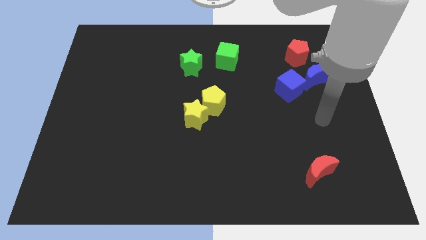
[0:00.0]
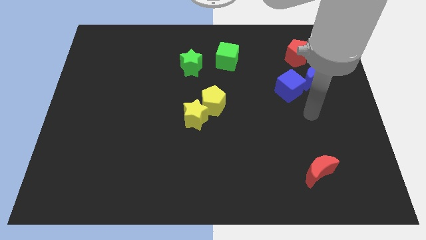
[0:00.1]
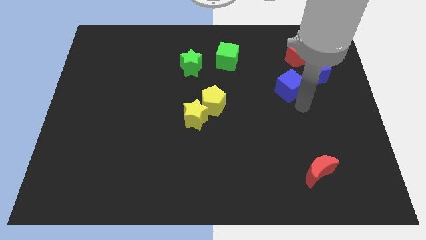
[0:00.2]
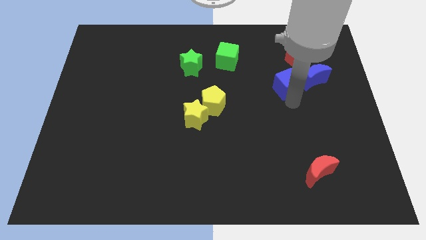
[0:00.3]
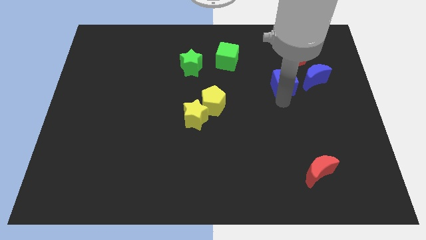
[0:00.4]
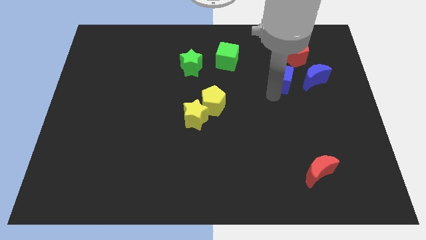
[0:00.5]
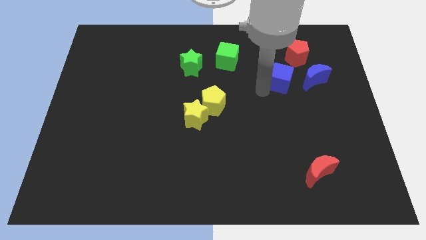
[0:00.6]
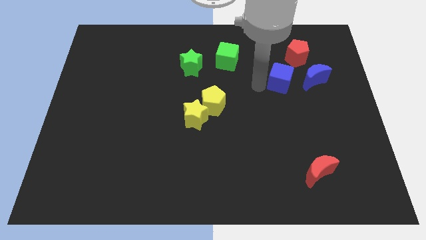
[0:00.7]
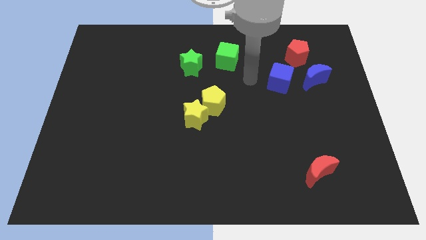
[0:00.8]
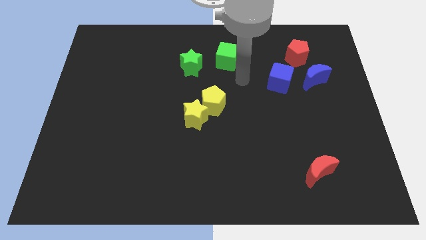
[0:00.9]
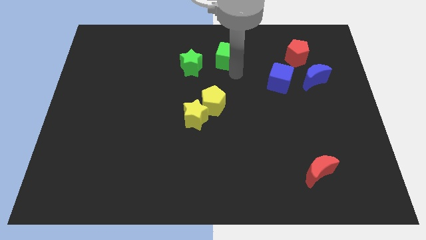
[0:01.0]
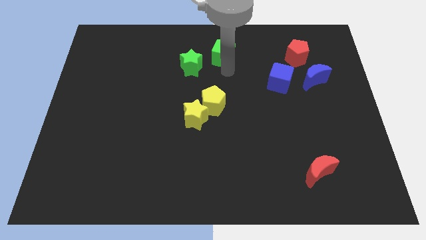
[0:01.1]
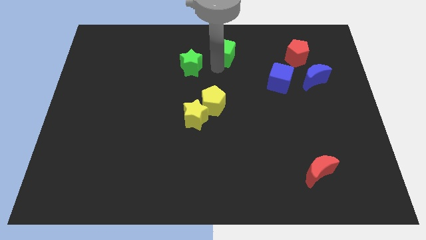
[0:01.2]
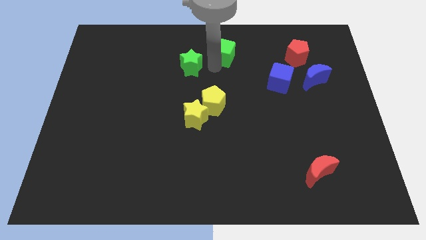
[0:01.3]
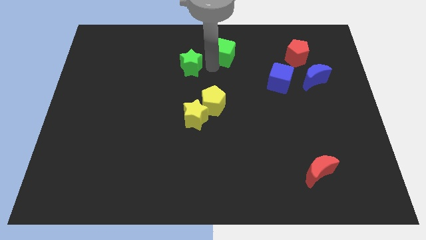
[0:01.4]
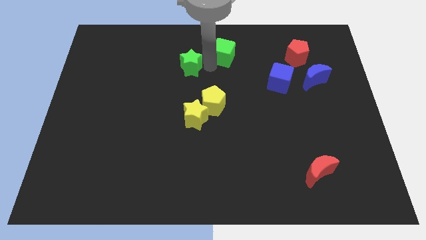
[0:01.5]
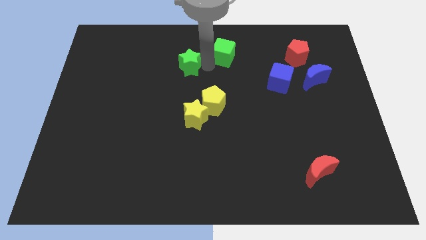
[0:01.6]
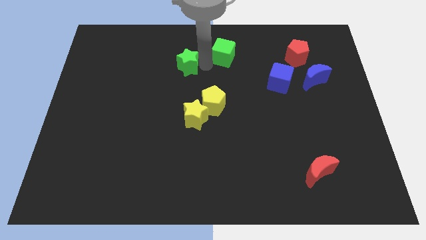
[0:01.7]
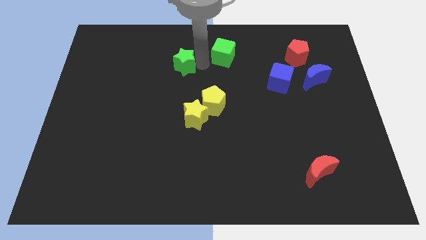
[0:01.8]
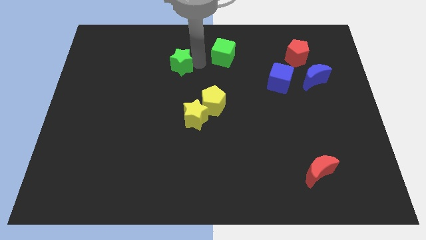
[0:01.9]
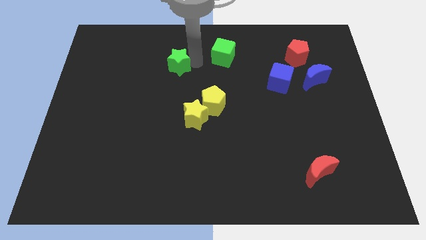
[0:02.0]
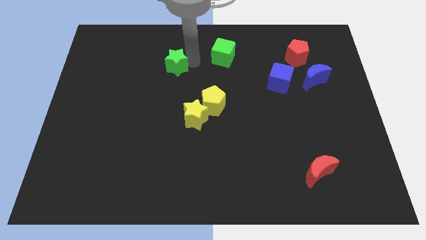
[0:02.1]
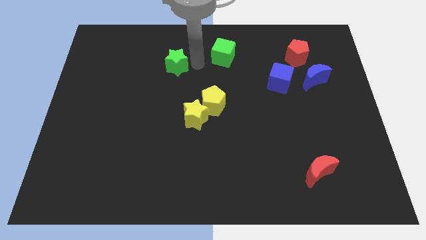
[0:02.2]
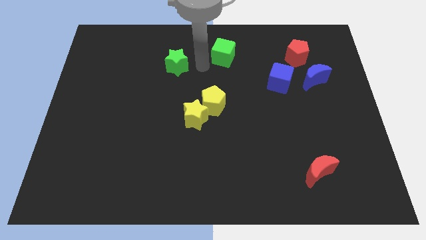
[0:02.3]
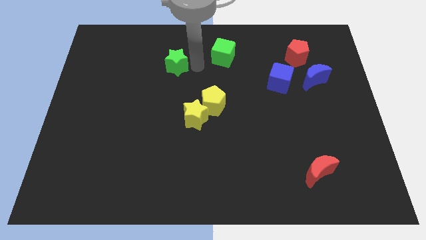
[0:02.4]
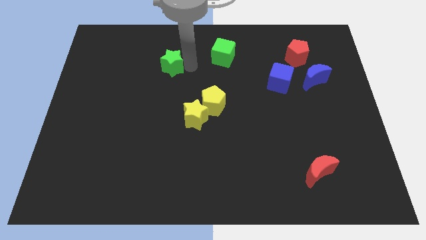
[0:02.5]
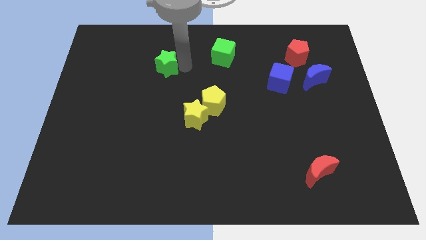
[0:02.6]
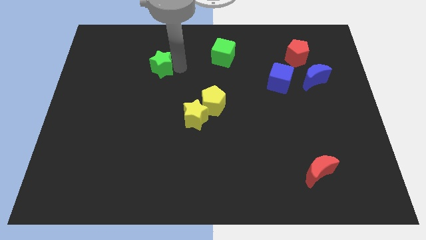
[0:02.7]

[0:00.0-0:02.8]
slightly move the green star left

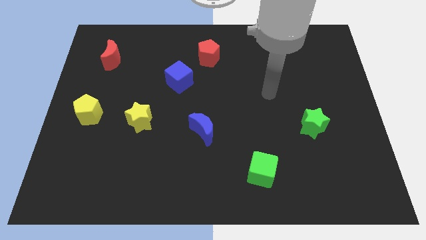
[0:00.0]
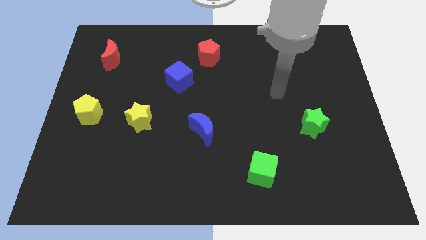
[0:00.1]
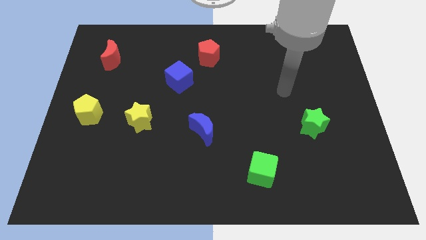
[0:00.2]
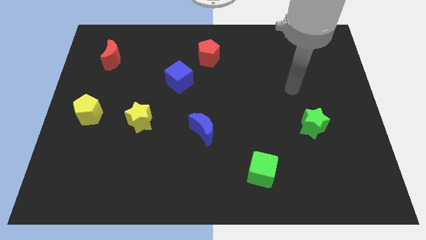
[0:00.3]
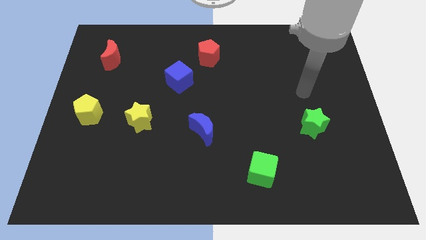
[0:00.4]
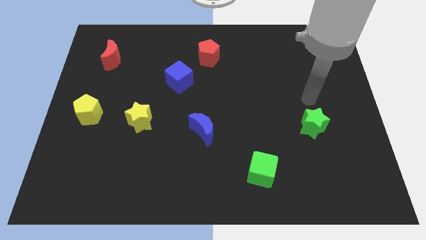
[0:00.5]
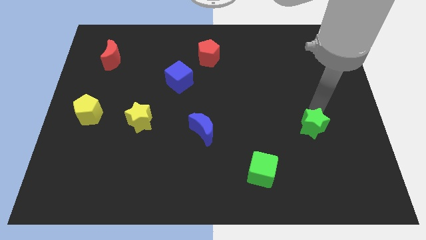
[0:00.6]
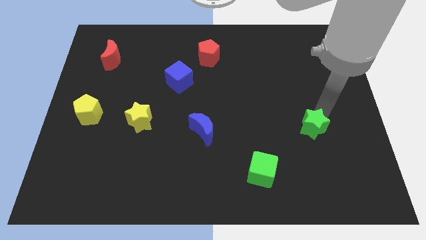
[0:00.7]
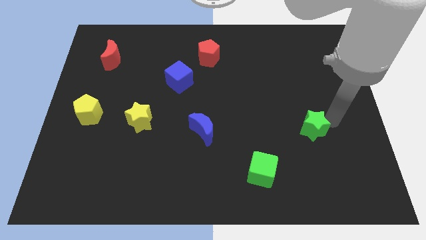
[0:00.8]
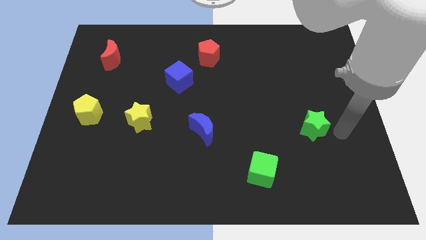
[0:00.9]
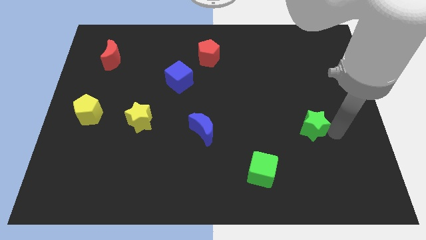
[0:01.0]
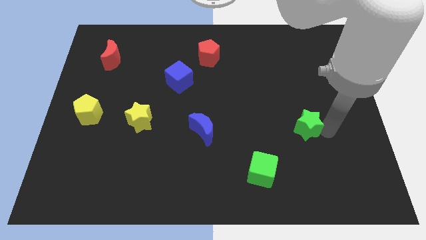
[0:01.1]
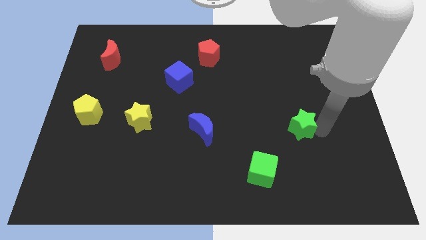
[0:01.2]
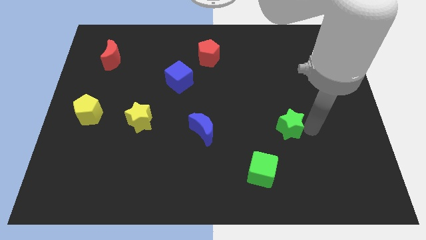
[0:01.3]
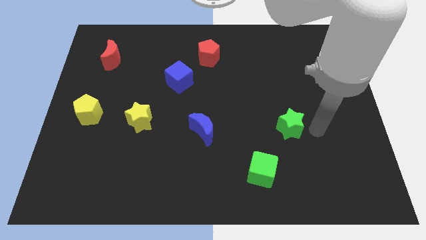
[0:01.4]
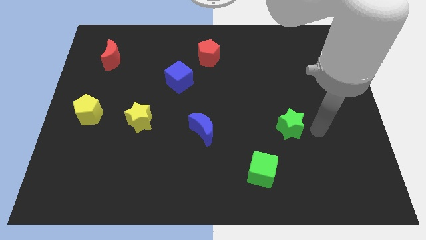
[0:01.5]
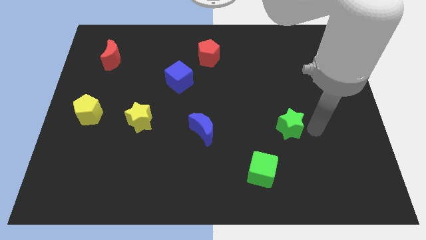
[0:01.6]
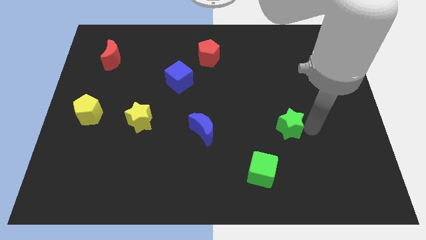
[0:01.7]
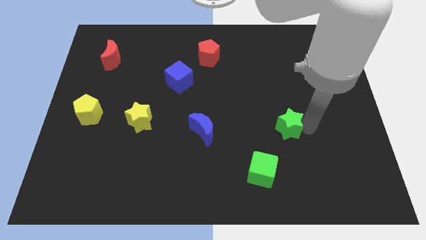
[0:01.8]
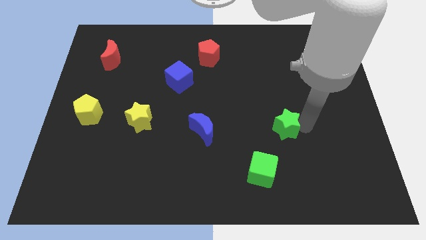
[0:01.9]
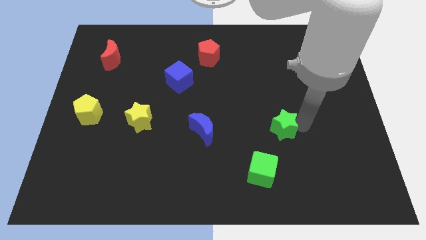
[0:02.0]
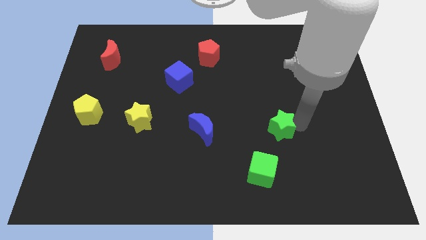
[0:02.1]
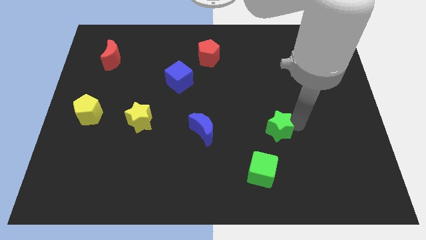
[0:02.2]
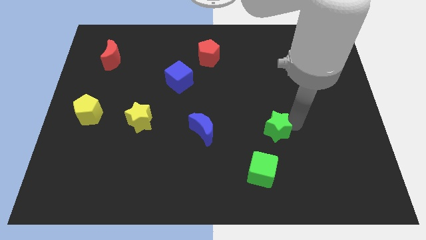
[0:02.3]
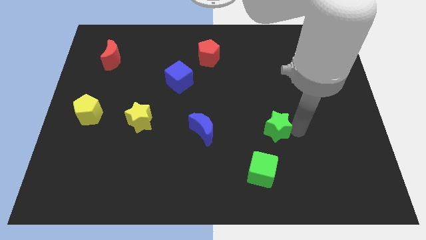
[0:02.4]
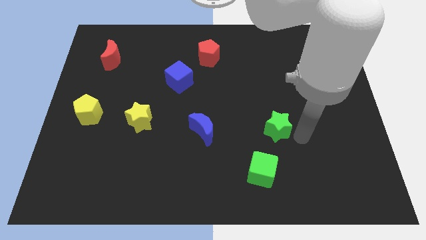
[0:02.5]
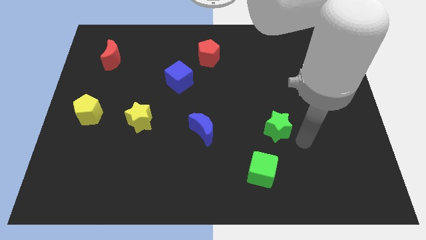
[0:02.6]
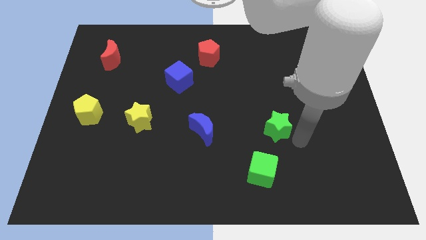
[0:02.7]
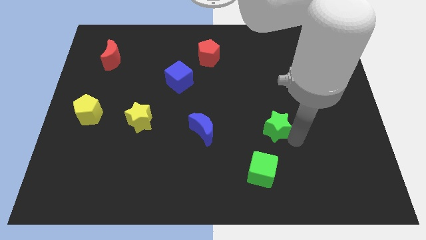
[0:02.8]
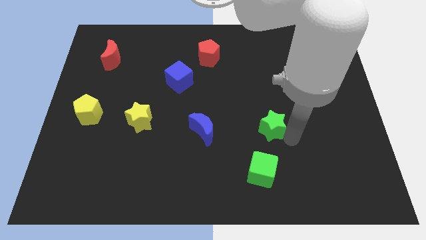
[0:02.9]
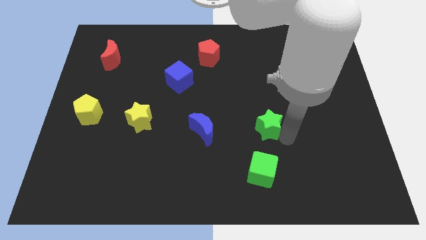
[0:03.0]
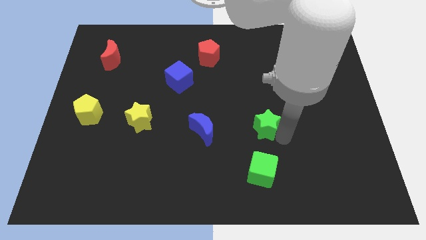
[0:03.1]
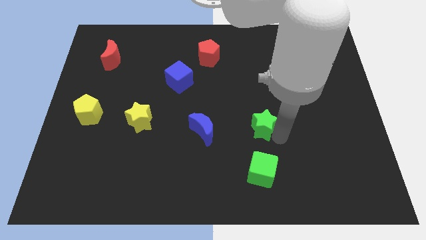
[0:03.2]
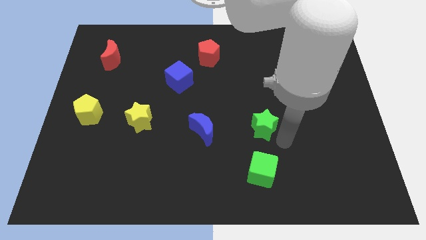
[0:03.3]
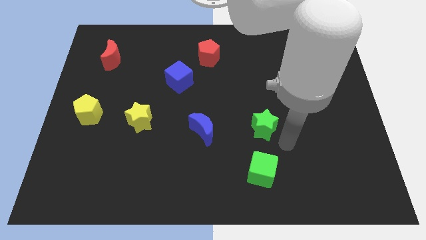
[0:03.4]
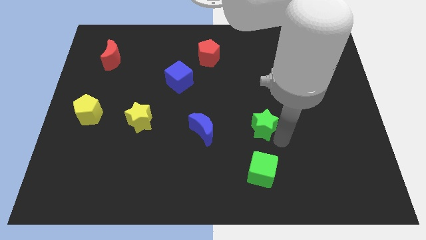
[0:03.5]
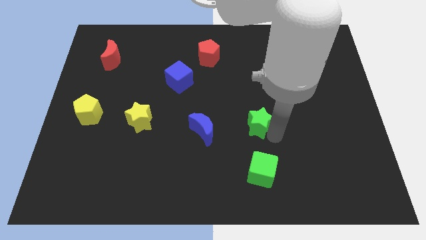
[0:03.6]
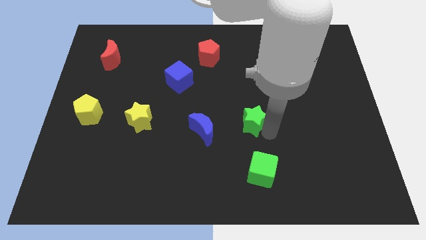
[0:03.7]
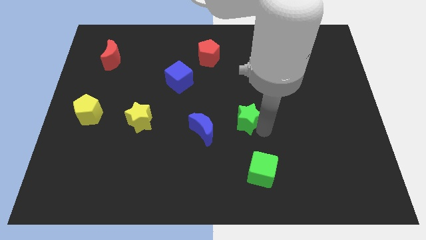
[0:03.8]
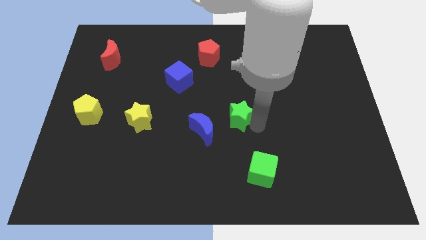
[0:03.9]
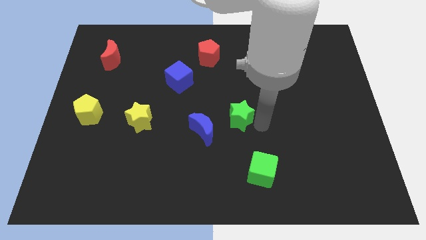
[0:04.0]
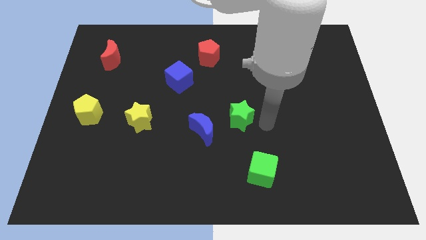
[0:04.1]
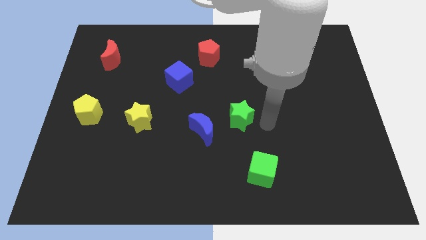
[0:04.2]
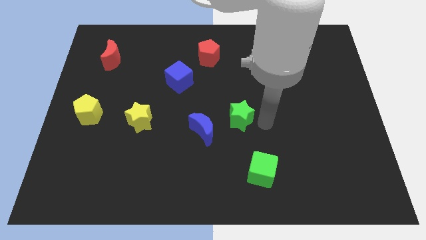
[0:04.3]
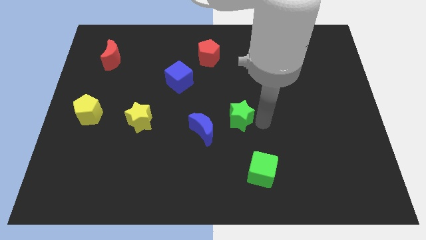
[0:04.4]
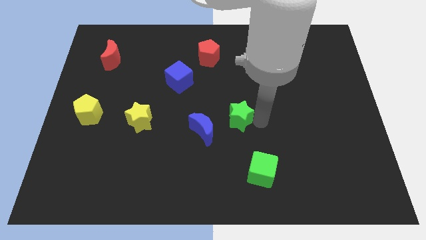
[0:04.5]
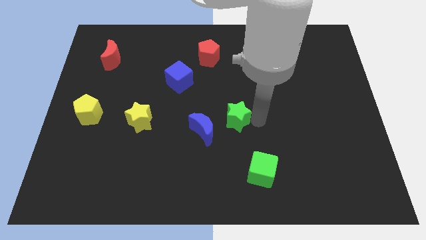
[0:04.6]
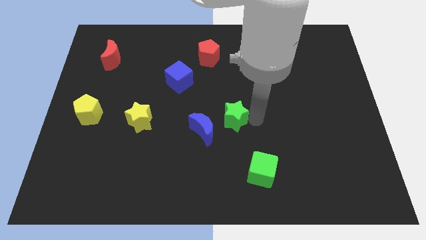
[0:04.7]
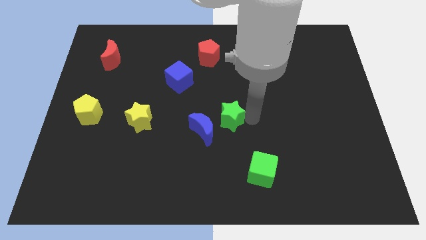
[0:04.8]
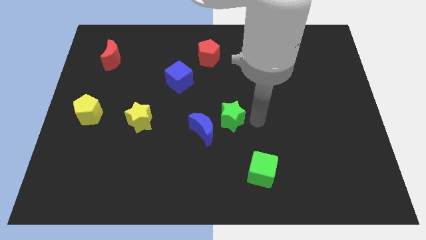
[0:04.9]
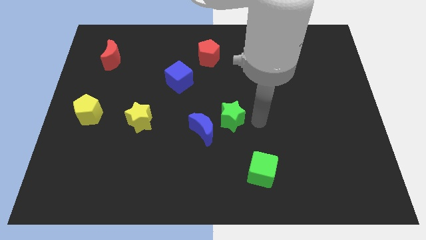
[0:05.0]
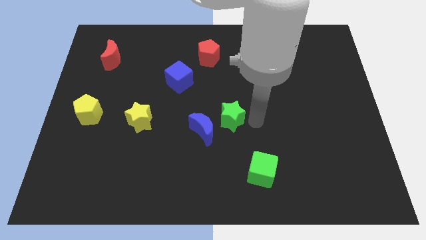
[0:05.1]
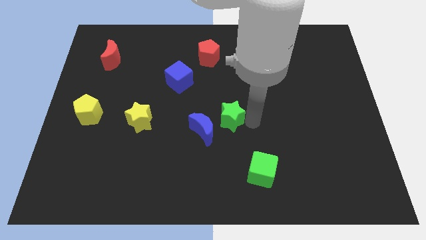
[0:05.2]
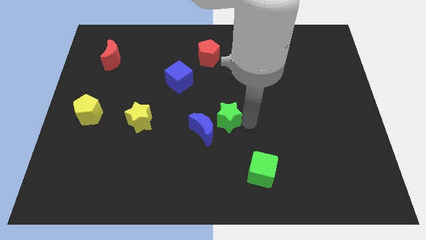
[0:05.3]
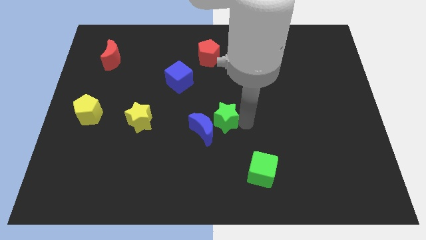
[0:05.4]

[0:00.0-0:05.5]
push the green star left
